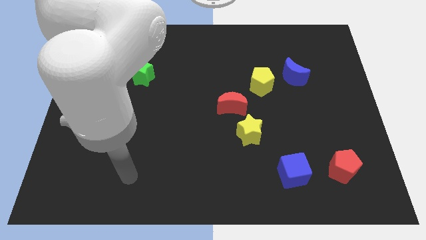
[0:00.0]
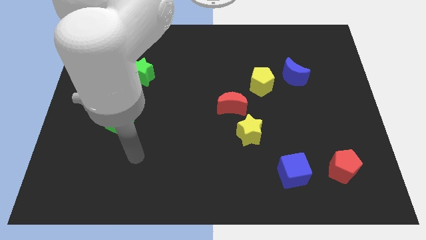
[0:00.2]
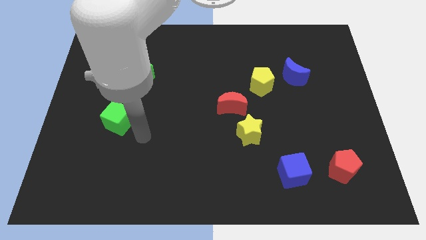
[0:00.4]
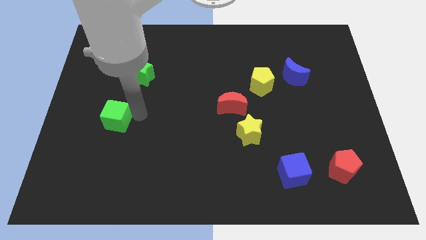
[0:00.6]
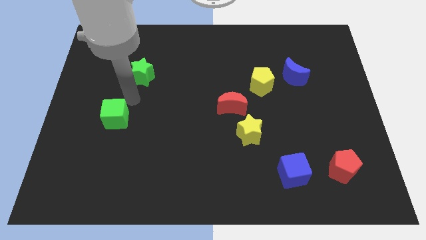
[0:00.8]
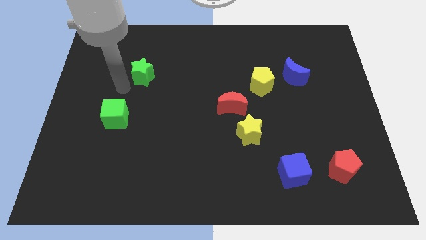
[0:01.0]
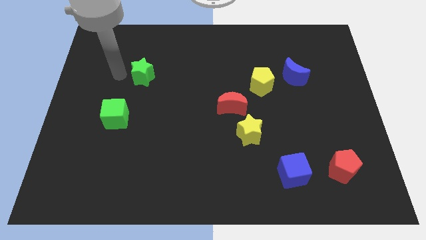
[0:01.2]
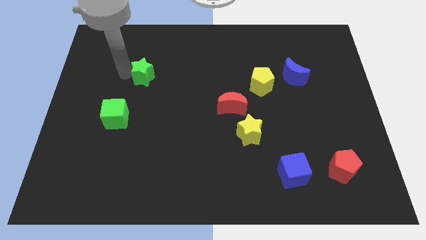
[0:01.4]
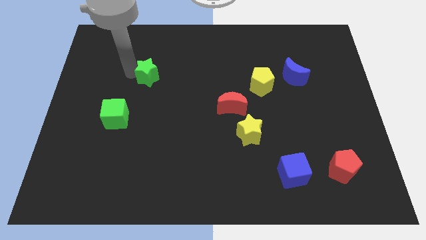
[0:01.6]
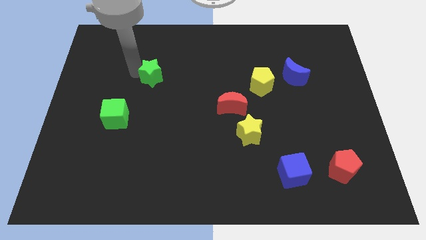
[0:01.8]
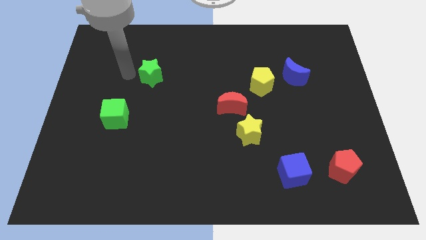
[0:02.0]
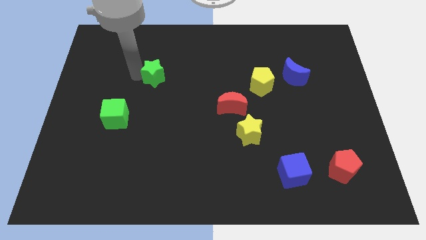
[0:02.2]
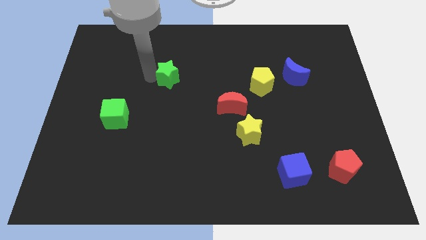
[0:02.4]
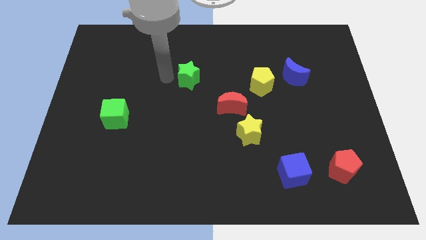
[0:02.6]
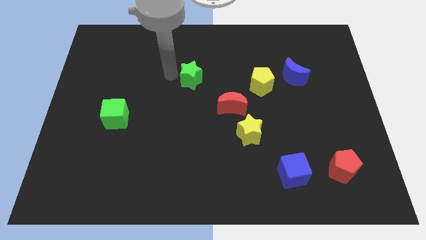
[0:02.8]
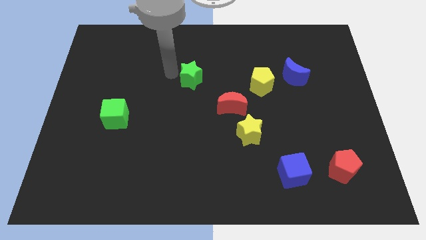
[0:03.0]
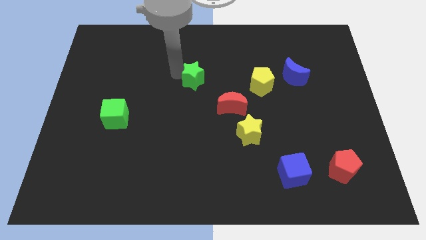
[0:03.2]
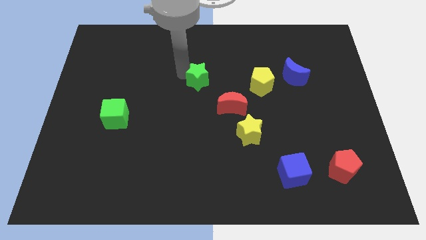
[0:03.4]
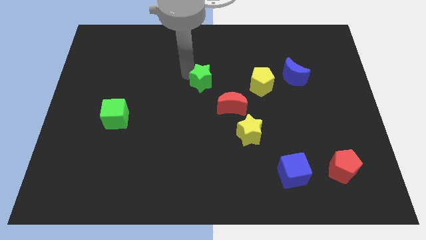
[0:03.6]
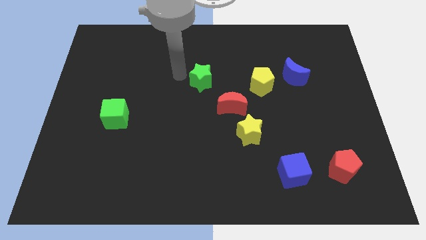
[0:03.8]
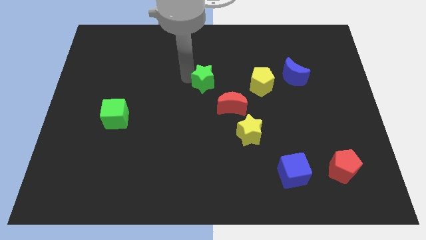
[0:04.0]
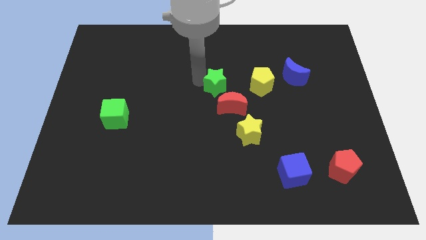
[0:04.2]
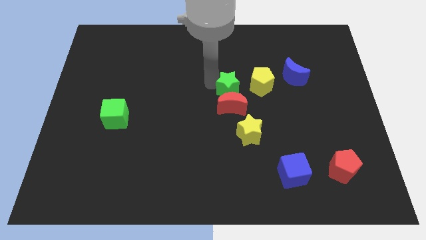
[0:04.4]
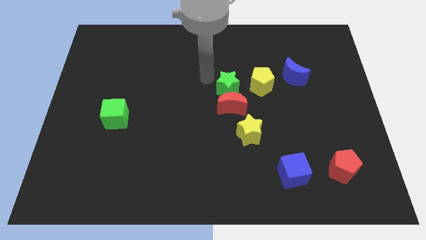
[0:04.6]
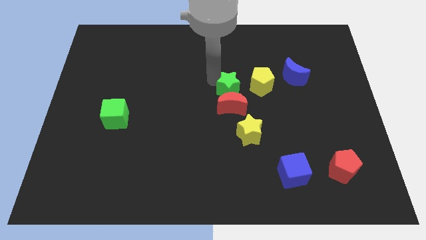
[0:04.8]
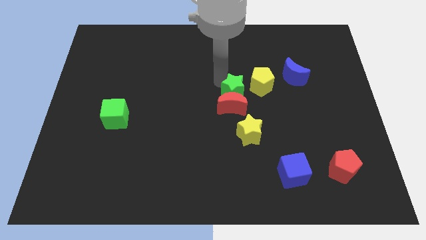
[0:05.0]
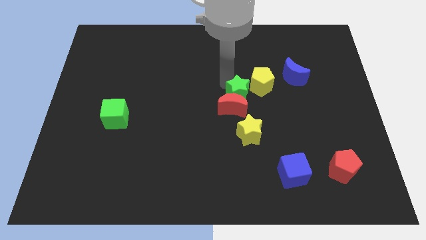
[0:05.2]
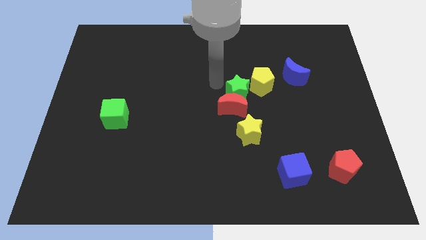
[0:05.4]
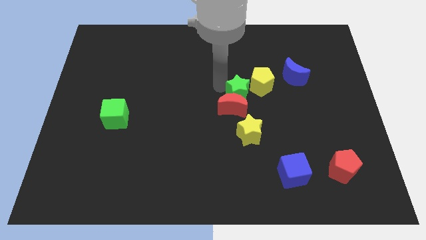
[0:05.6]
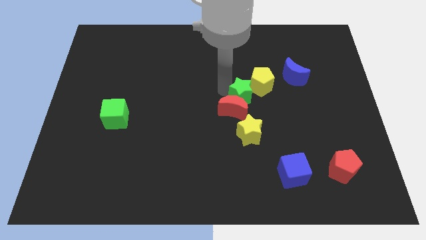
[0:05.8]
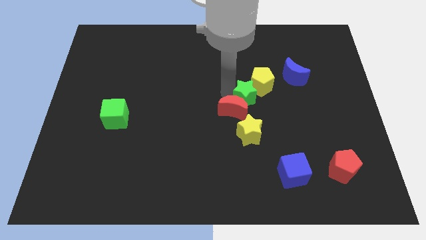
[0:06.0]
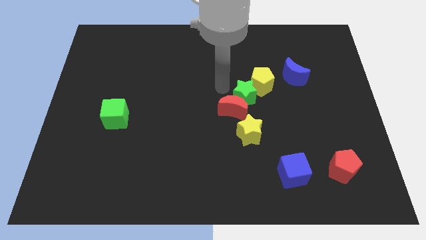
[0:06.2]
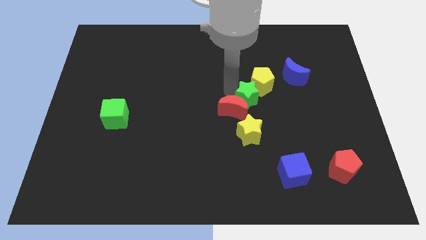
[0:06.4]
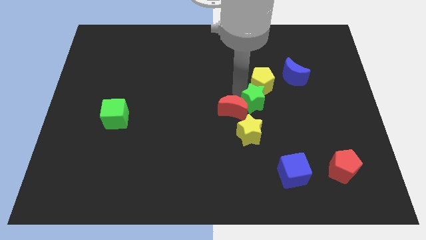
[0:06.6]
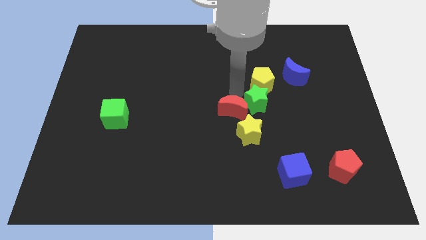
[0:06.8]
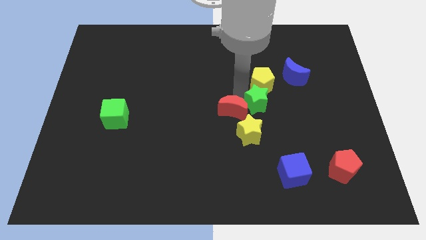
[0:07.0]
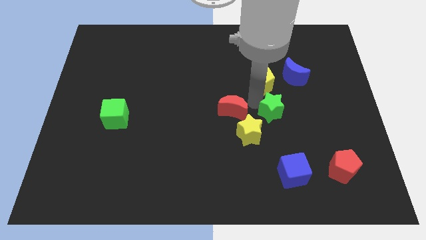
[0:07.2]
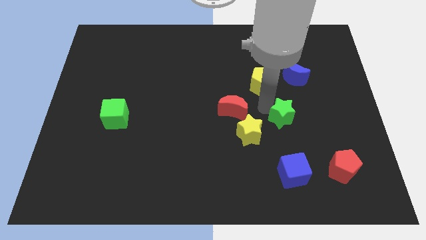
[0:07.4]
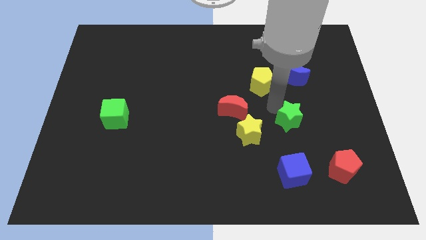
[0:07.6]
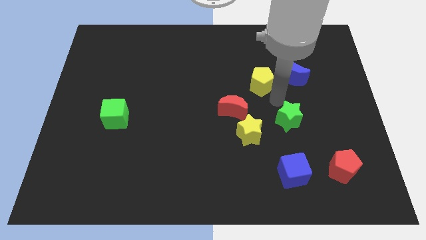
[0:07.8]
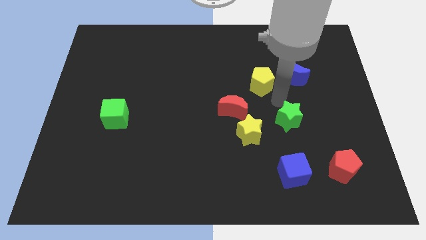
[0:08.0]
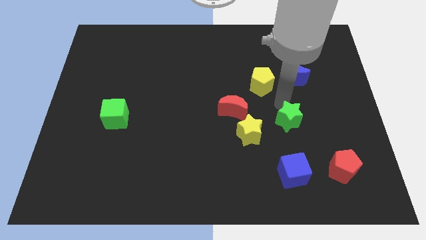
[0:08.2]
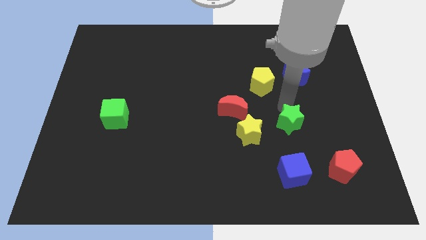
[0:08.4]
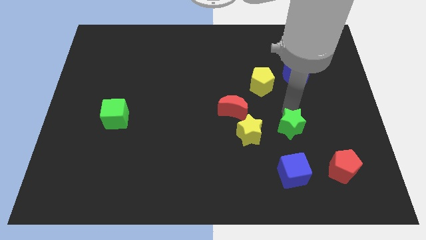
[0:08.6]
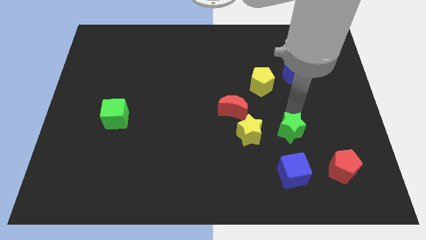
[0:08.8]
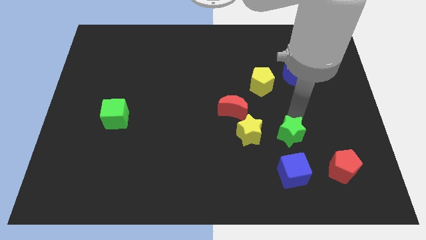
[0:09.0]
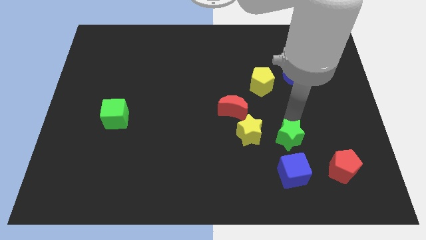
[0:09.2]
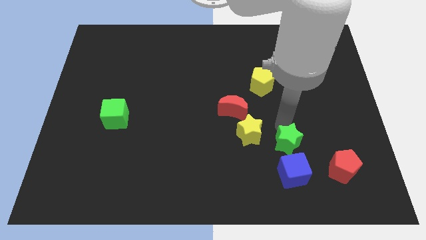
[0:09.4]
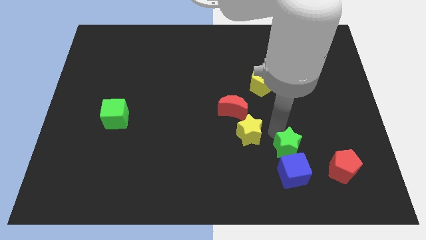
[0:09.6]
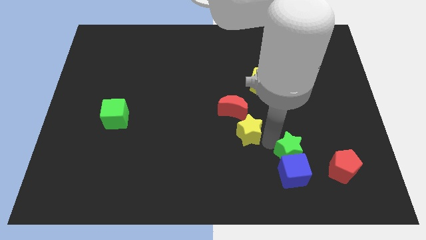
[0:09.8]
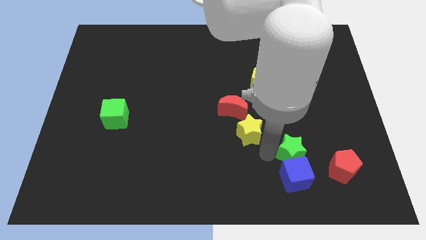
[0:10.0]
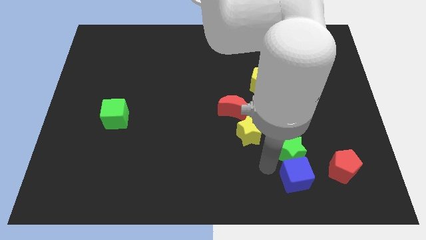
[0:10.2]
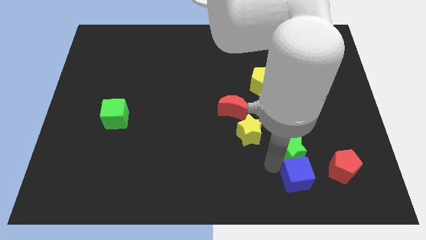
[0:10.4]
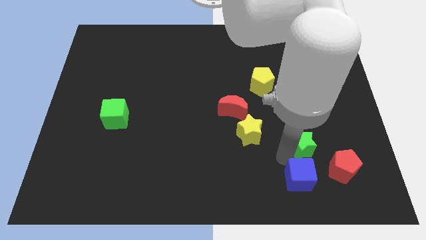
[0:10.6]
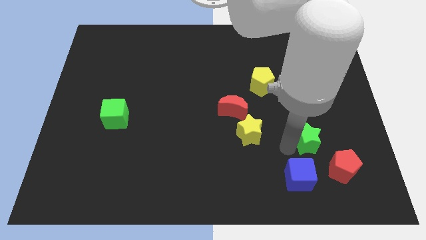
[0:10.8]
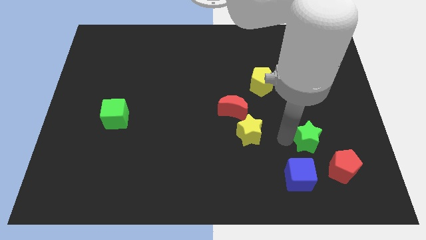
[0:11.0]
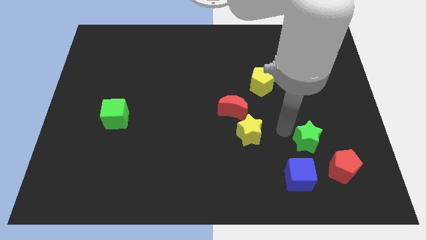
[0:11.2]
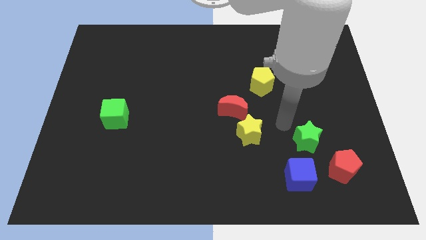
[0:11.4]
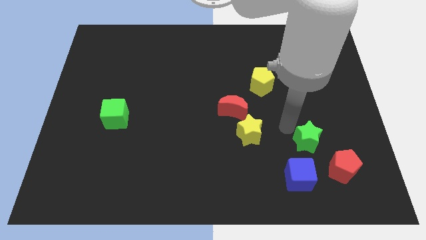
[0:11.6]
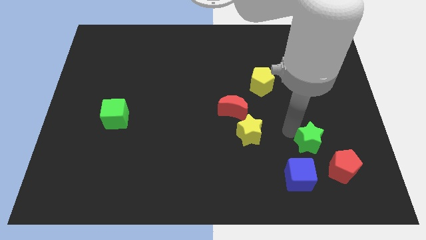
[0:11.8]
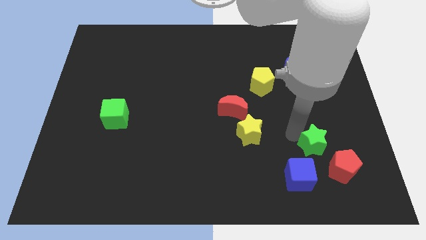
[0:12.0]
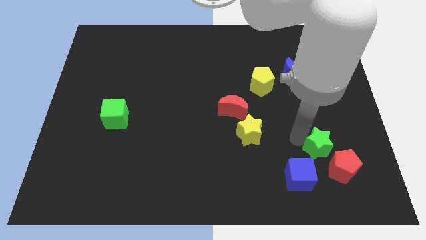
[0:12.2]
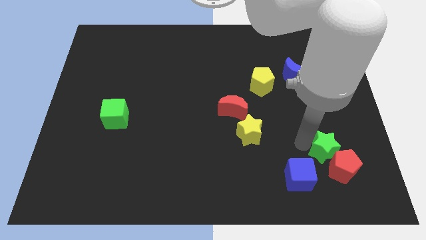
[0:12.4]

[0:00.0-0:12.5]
slide the green star close to the red pentagon

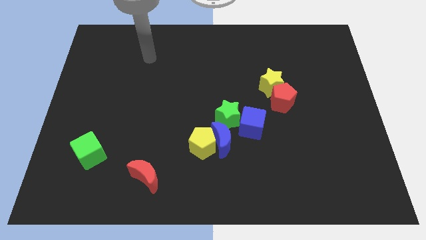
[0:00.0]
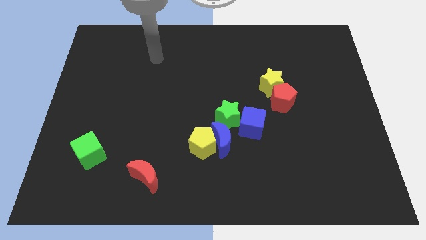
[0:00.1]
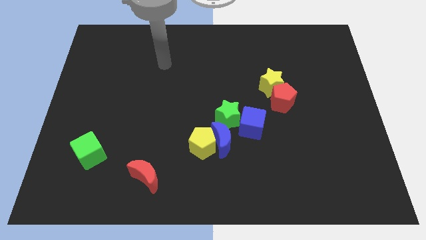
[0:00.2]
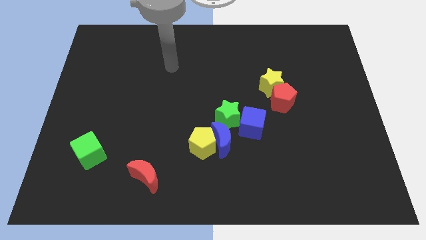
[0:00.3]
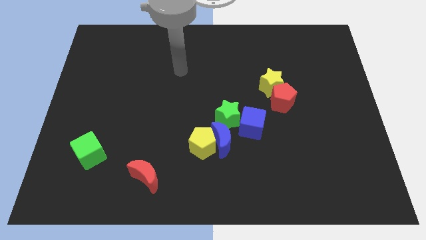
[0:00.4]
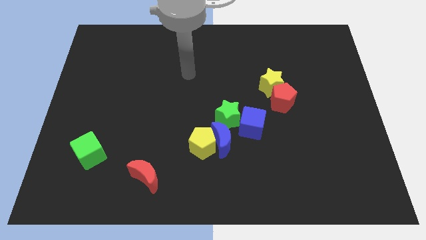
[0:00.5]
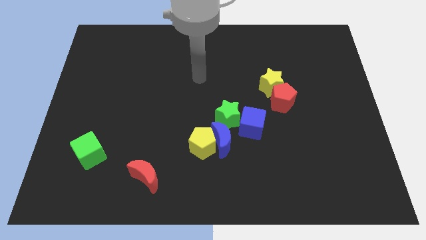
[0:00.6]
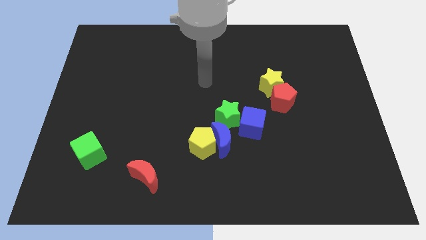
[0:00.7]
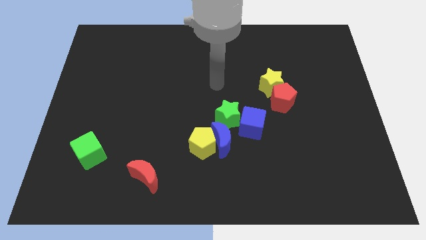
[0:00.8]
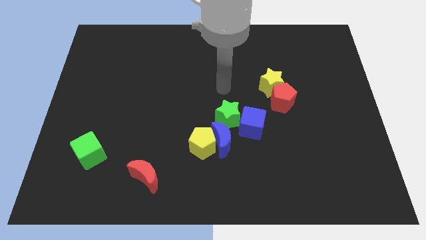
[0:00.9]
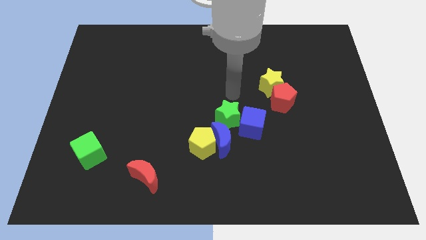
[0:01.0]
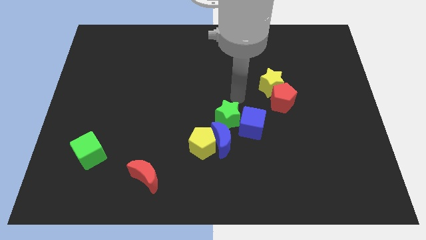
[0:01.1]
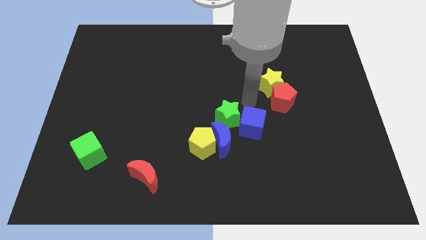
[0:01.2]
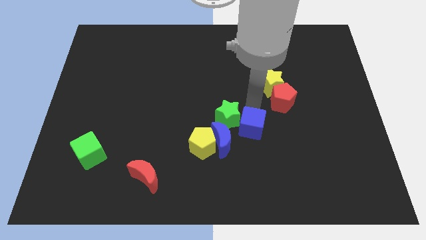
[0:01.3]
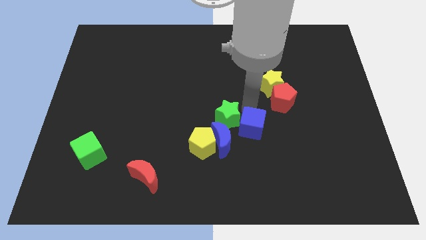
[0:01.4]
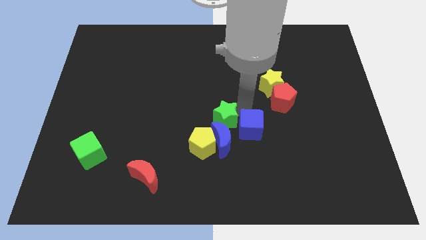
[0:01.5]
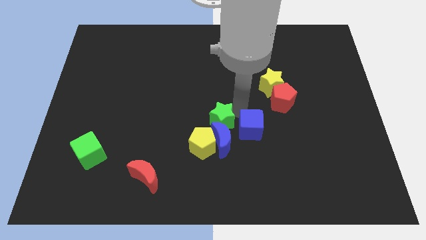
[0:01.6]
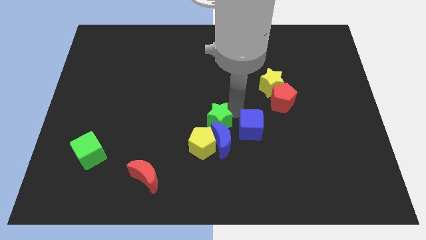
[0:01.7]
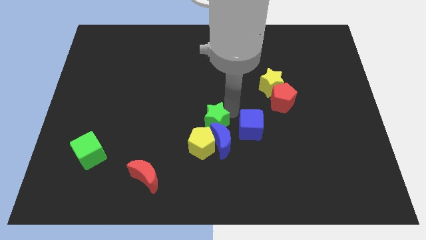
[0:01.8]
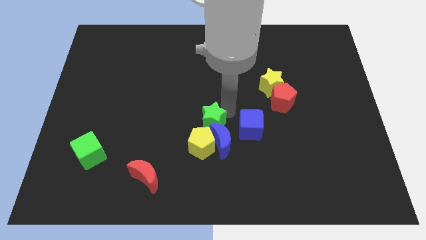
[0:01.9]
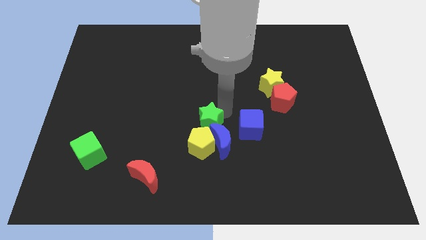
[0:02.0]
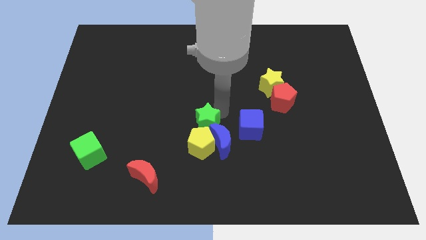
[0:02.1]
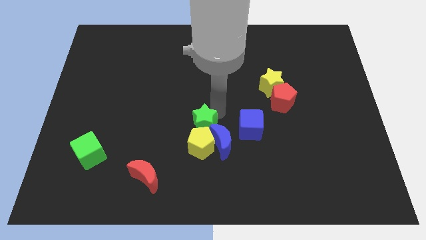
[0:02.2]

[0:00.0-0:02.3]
slide the green star next to the yellow pentagon
